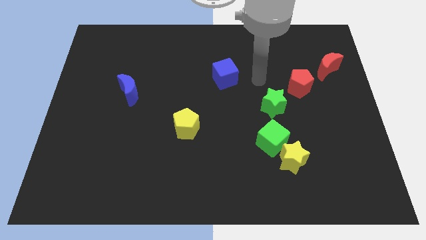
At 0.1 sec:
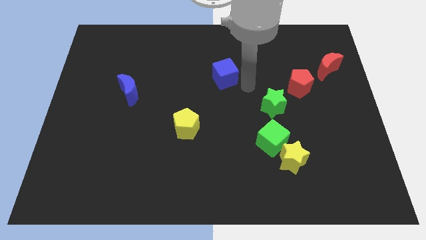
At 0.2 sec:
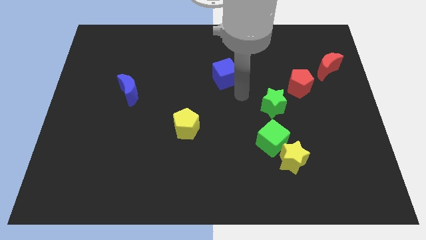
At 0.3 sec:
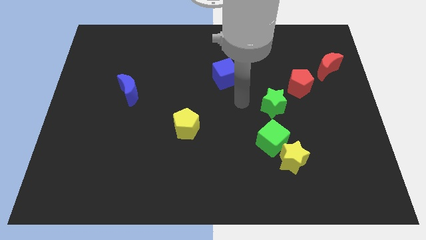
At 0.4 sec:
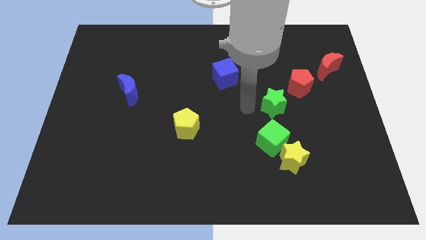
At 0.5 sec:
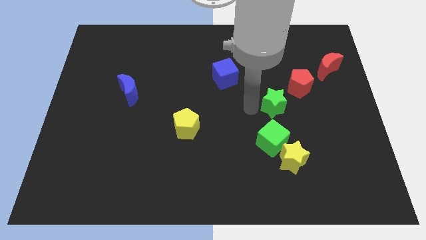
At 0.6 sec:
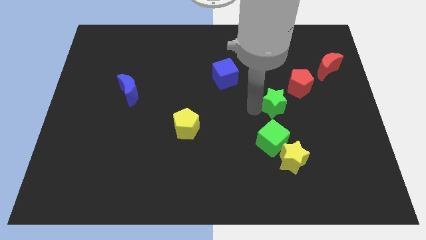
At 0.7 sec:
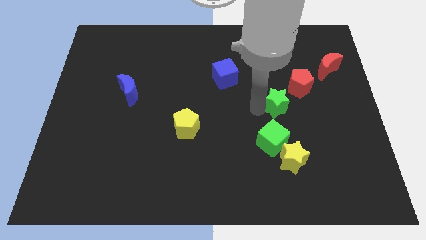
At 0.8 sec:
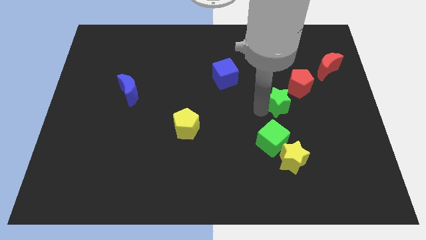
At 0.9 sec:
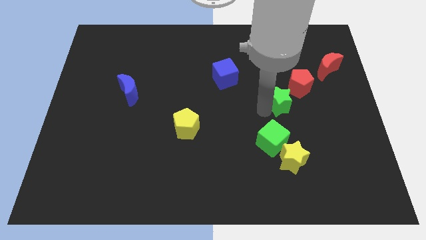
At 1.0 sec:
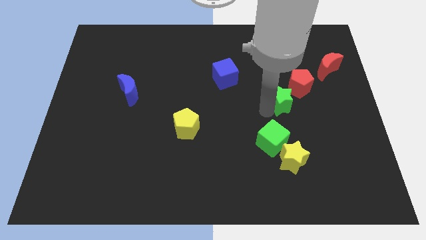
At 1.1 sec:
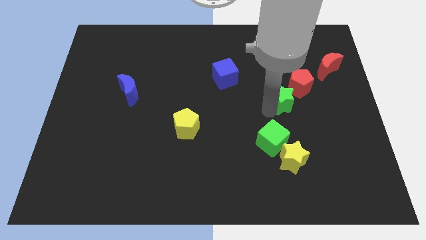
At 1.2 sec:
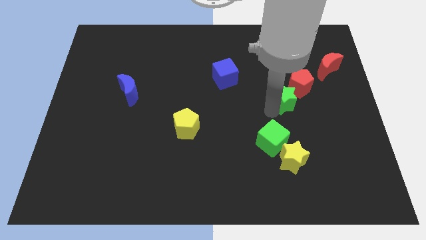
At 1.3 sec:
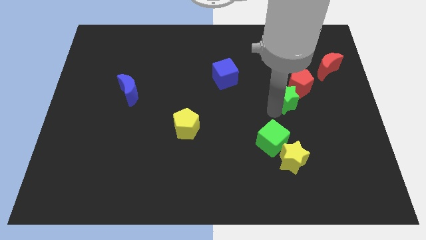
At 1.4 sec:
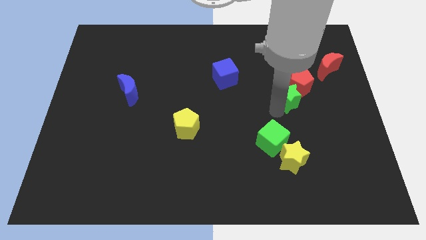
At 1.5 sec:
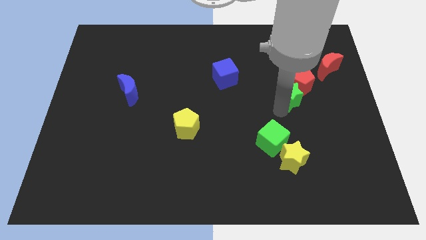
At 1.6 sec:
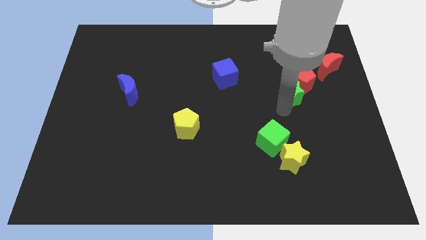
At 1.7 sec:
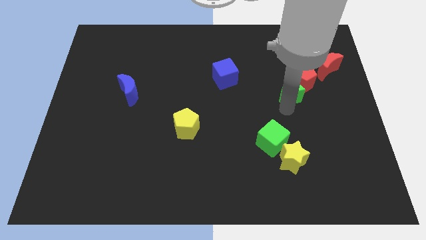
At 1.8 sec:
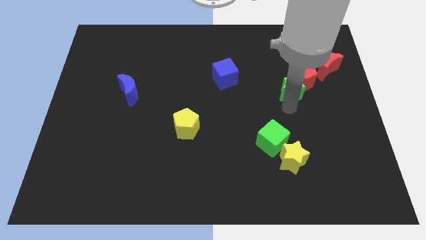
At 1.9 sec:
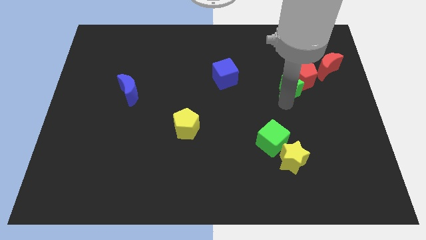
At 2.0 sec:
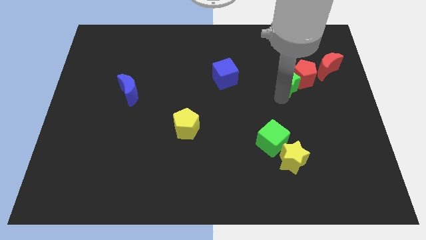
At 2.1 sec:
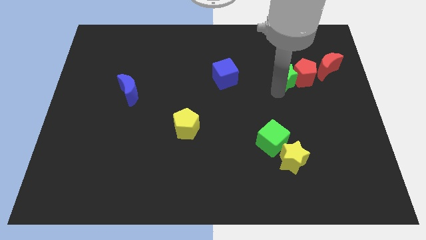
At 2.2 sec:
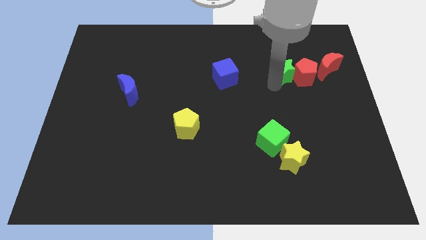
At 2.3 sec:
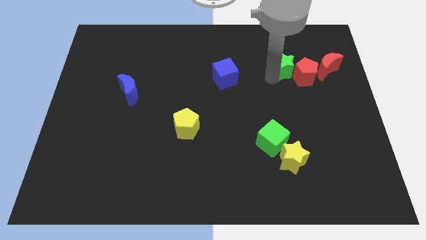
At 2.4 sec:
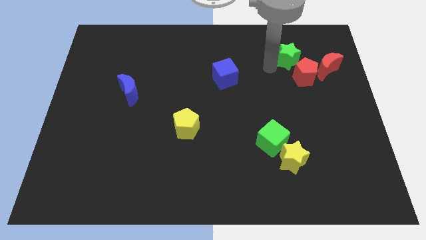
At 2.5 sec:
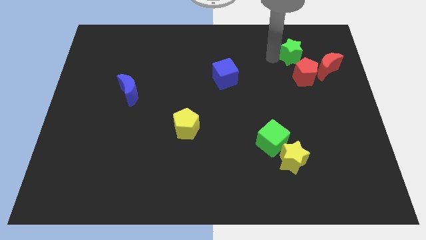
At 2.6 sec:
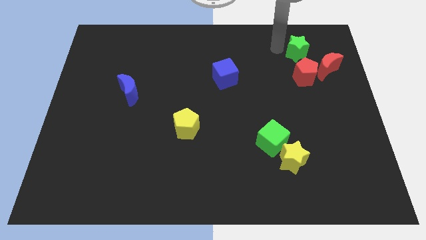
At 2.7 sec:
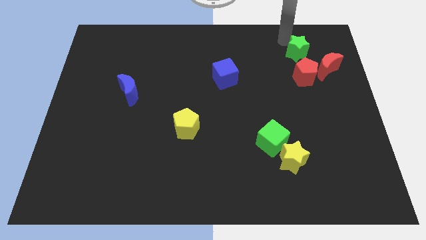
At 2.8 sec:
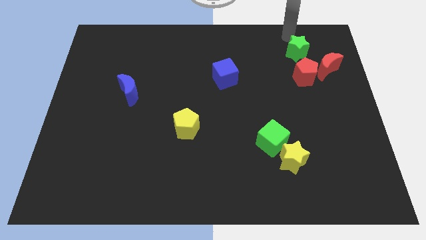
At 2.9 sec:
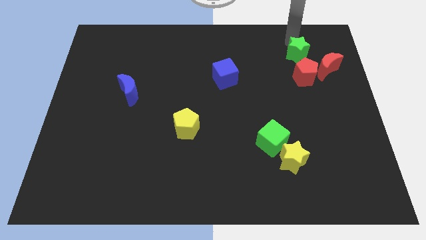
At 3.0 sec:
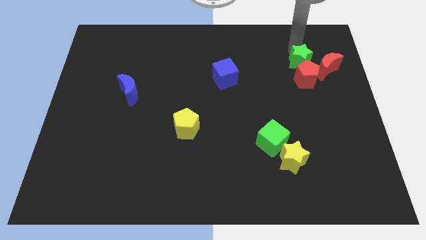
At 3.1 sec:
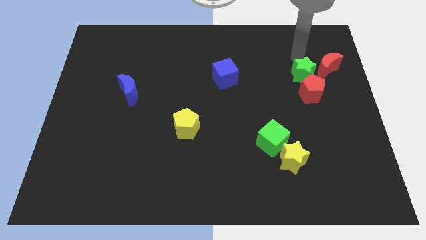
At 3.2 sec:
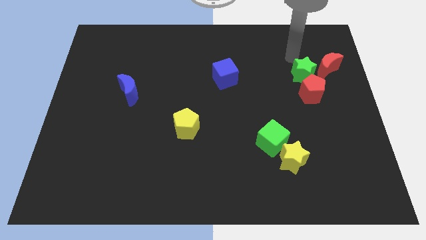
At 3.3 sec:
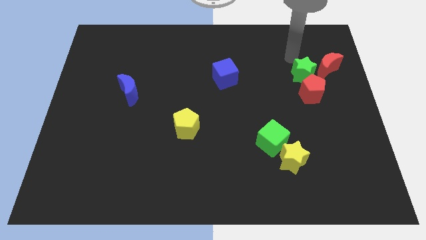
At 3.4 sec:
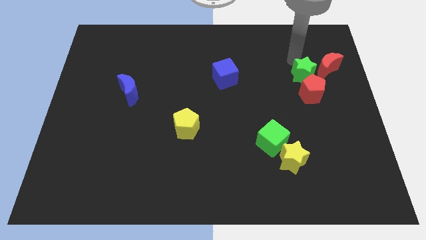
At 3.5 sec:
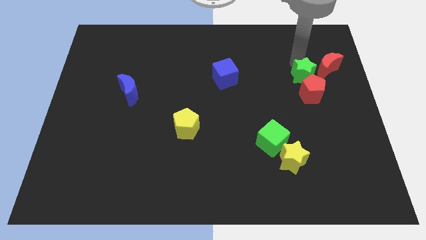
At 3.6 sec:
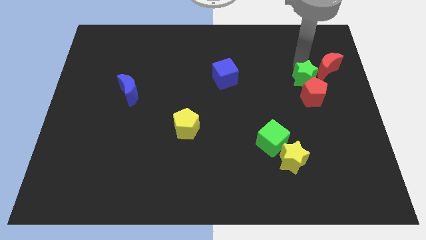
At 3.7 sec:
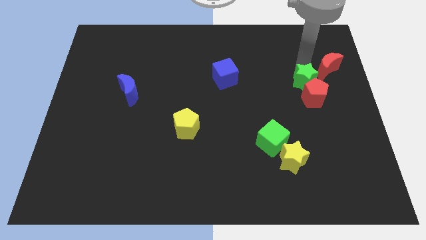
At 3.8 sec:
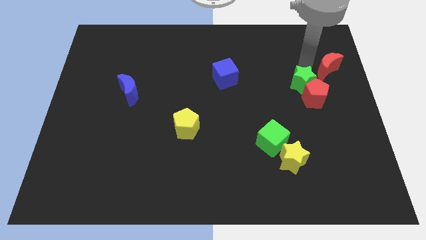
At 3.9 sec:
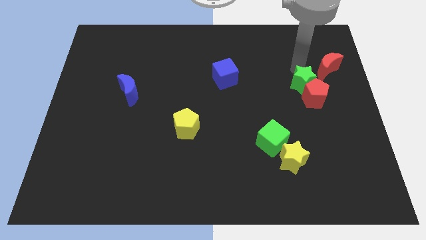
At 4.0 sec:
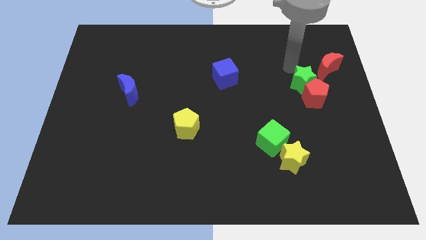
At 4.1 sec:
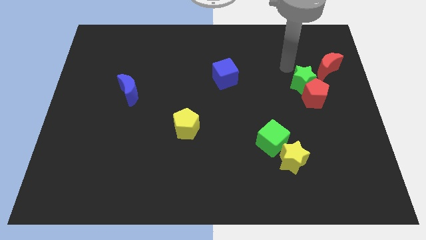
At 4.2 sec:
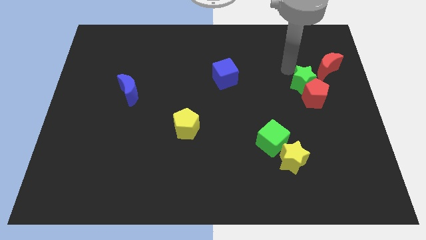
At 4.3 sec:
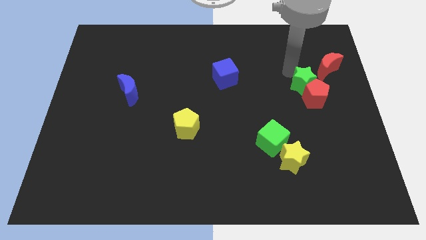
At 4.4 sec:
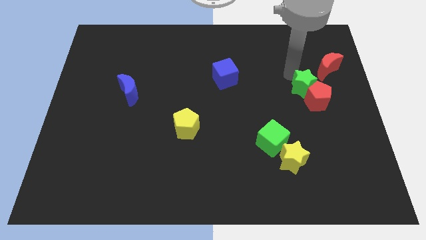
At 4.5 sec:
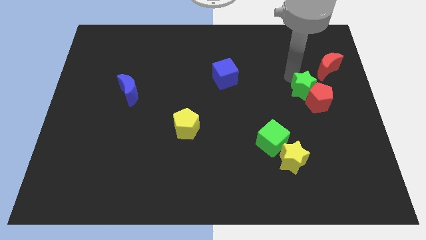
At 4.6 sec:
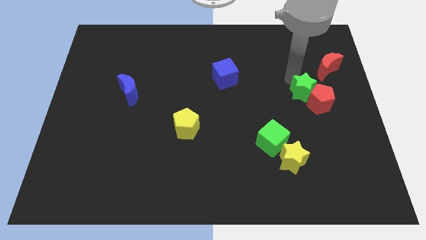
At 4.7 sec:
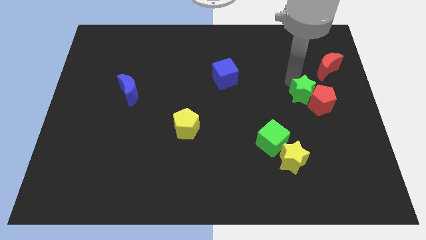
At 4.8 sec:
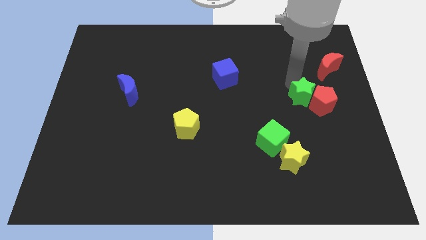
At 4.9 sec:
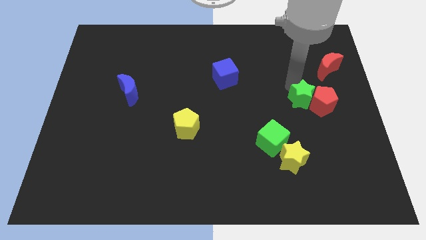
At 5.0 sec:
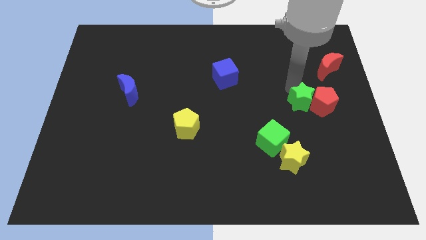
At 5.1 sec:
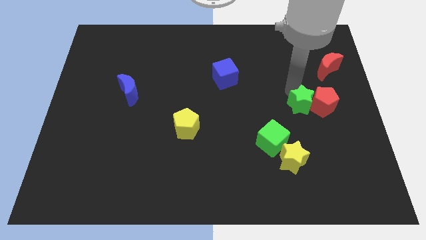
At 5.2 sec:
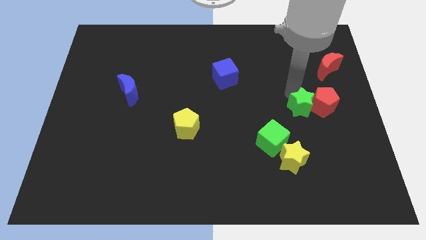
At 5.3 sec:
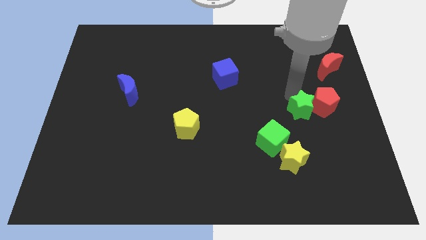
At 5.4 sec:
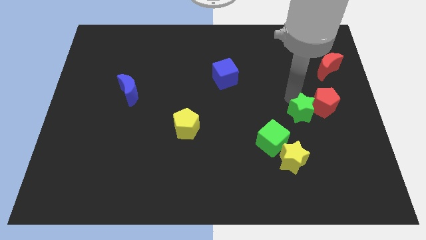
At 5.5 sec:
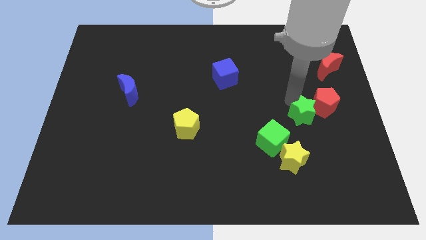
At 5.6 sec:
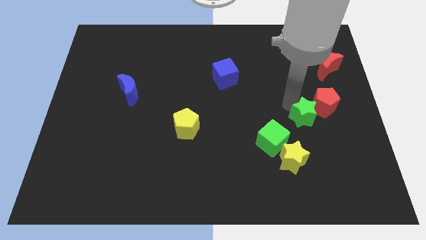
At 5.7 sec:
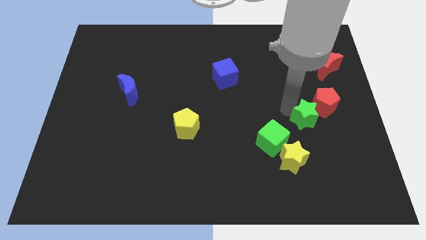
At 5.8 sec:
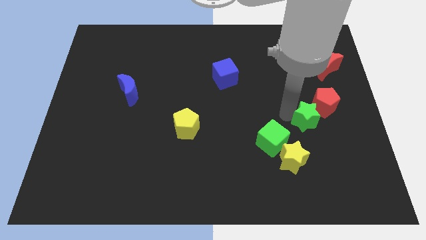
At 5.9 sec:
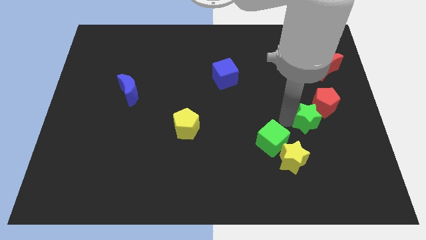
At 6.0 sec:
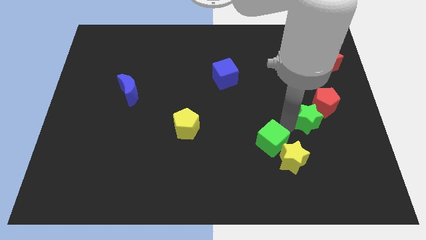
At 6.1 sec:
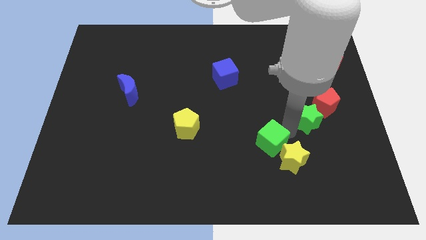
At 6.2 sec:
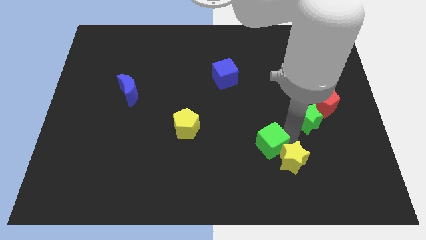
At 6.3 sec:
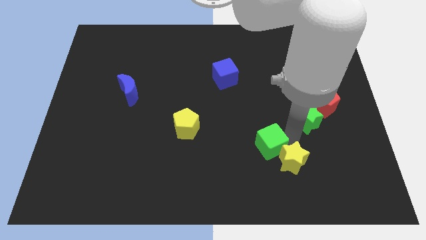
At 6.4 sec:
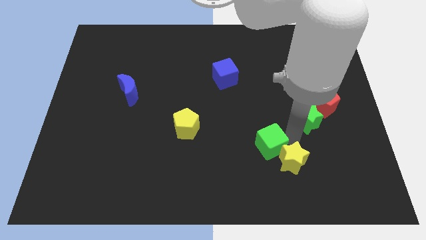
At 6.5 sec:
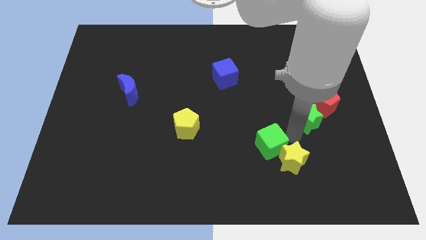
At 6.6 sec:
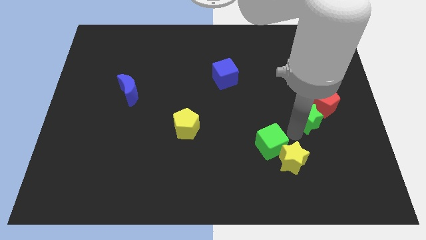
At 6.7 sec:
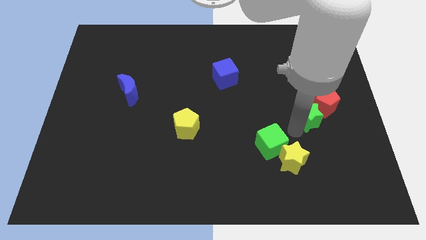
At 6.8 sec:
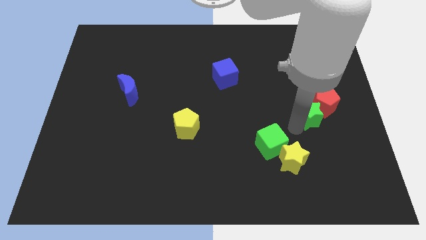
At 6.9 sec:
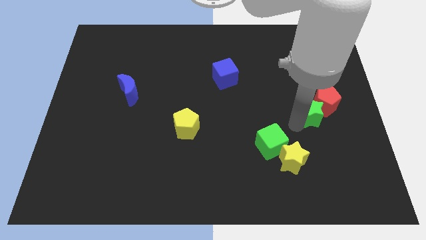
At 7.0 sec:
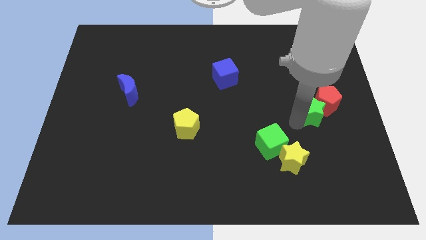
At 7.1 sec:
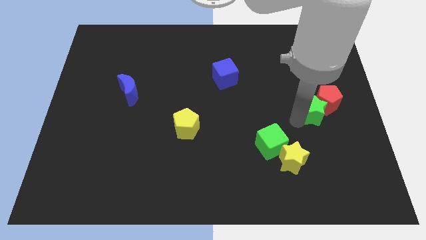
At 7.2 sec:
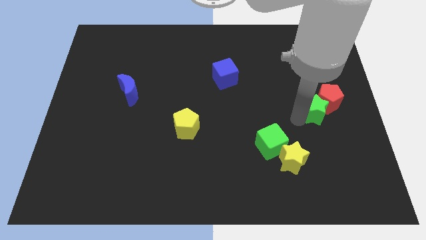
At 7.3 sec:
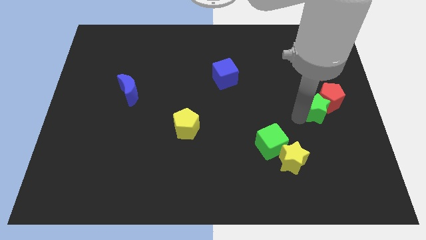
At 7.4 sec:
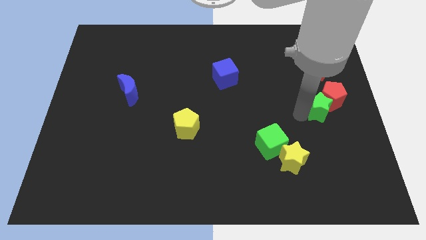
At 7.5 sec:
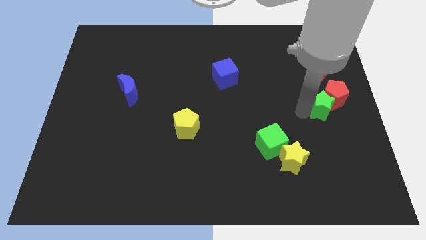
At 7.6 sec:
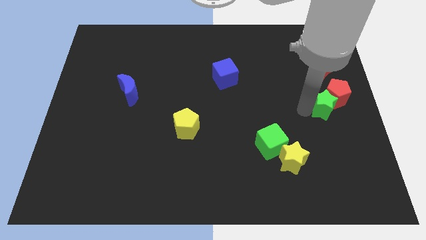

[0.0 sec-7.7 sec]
slide the green star to the center right
